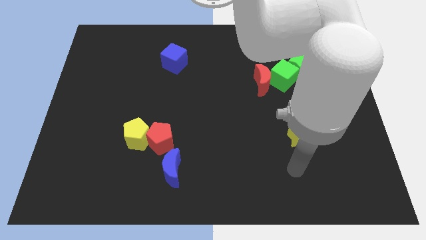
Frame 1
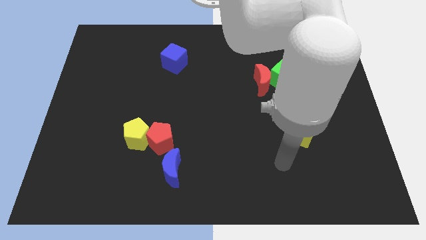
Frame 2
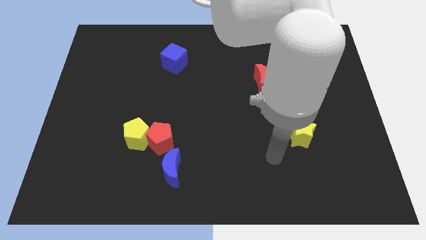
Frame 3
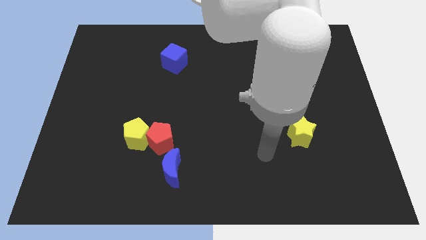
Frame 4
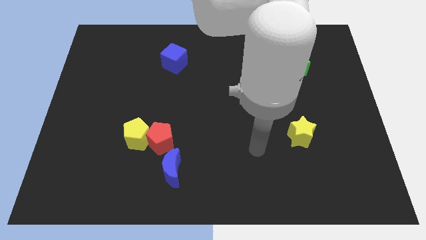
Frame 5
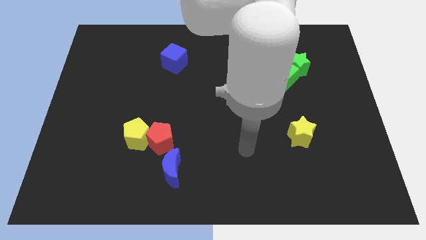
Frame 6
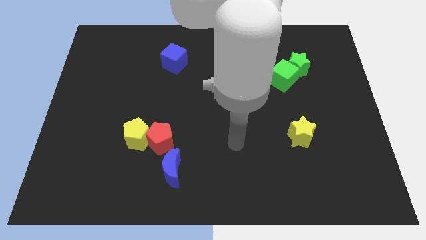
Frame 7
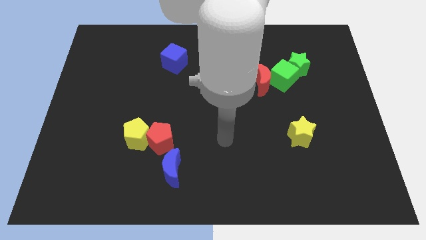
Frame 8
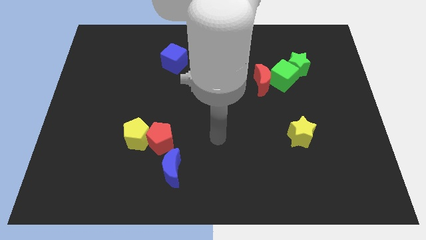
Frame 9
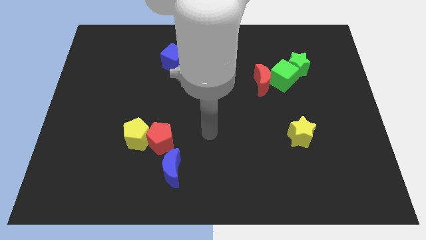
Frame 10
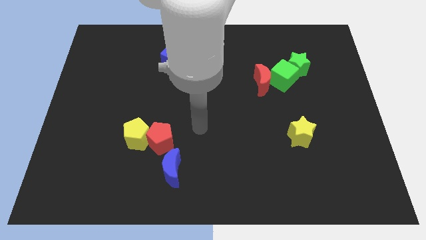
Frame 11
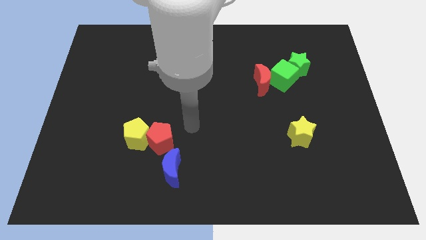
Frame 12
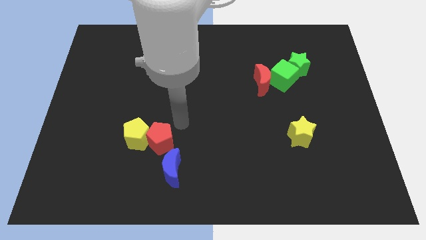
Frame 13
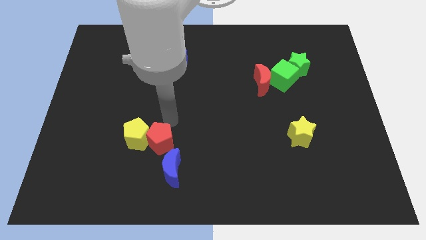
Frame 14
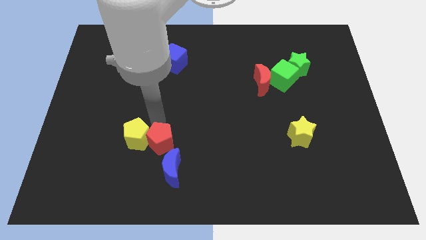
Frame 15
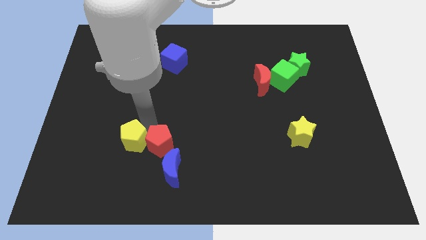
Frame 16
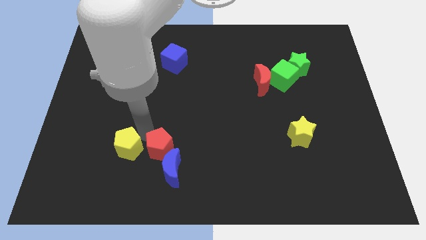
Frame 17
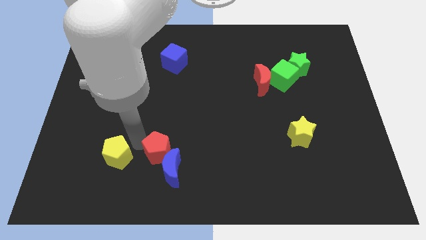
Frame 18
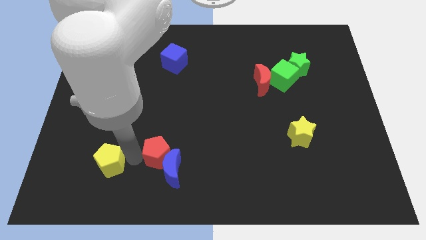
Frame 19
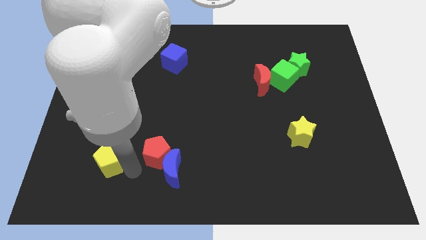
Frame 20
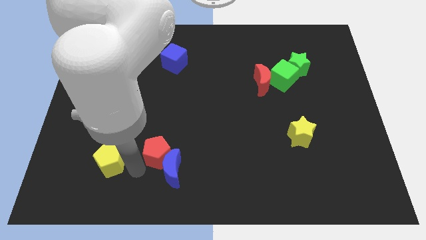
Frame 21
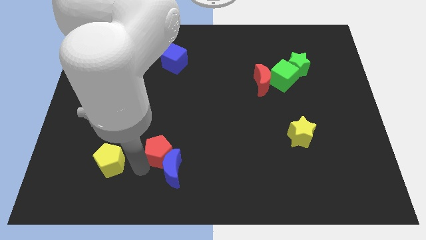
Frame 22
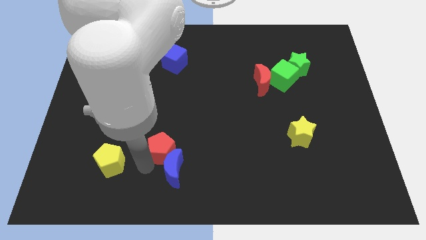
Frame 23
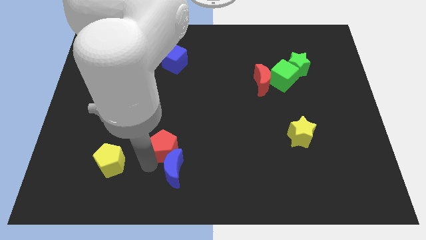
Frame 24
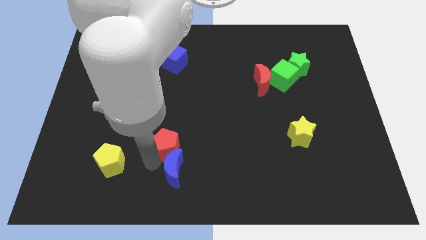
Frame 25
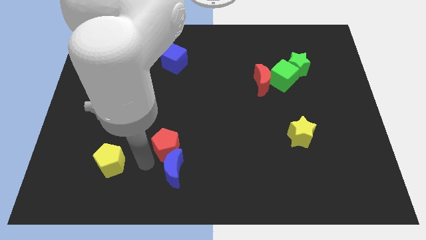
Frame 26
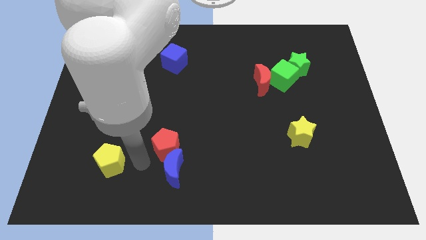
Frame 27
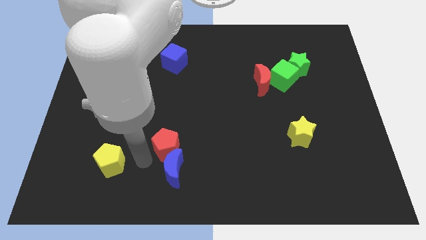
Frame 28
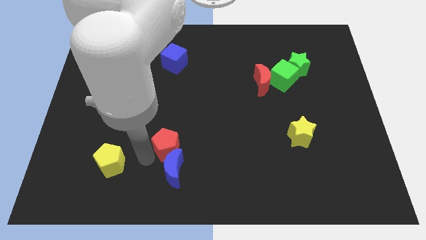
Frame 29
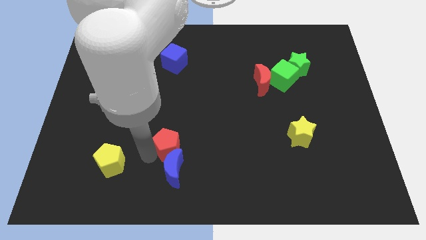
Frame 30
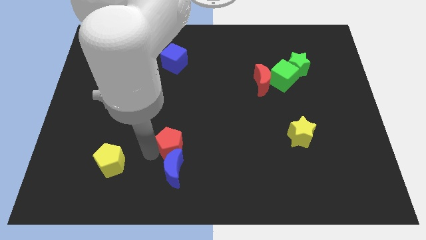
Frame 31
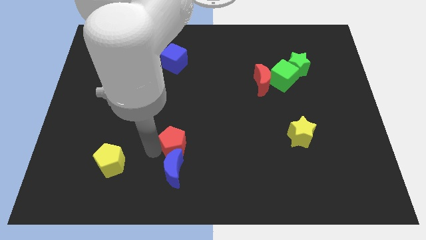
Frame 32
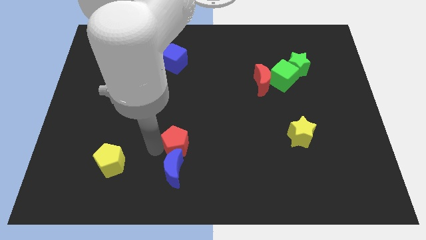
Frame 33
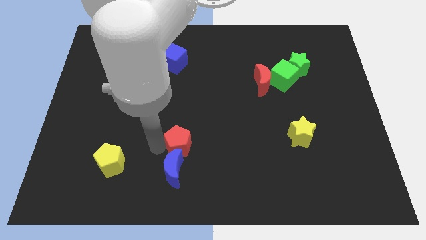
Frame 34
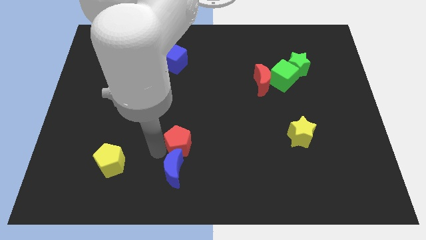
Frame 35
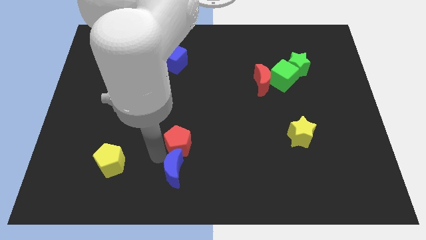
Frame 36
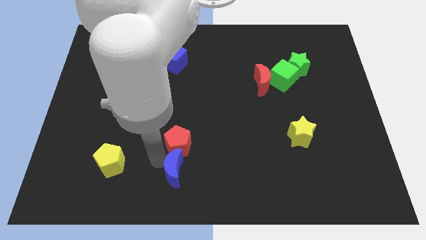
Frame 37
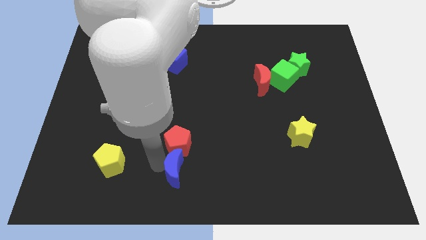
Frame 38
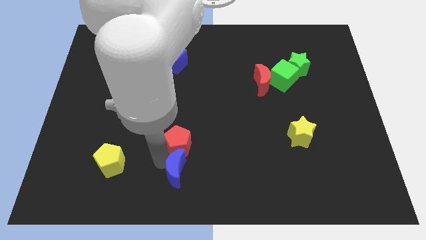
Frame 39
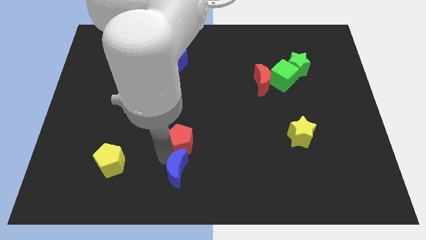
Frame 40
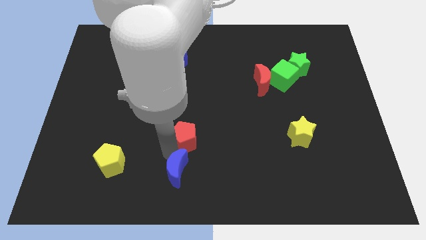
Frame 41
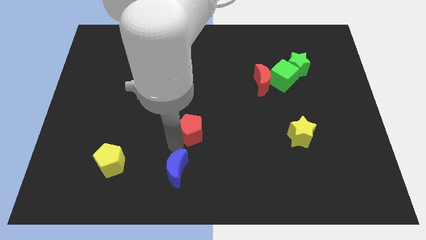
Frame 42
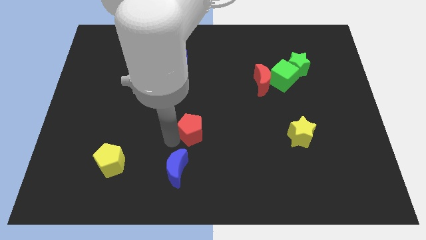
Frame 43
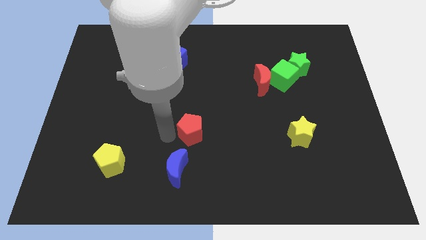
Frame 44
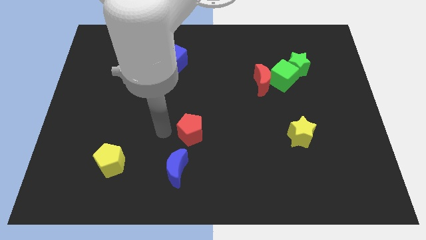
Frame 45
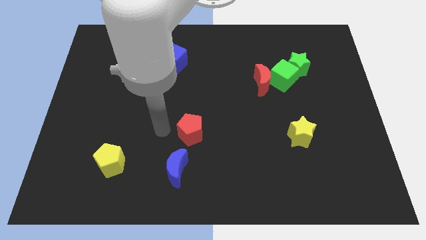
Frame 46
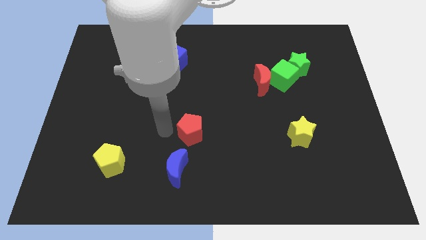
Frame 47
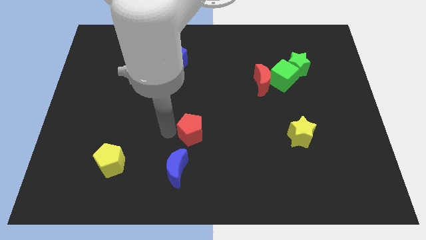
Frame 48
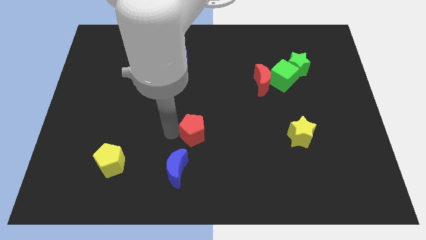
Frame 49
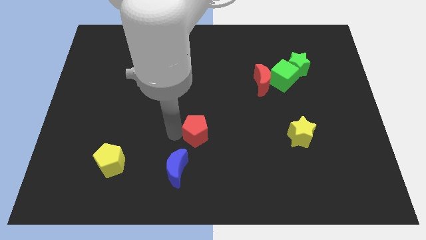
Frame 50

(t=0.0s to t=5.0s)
slide the red pentagon right slightly

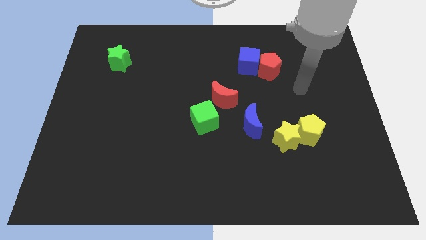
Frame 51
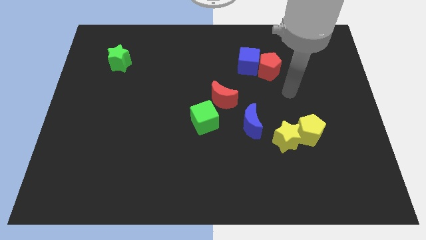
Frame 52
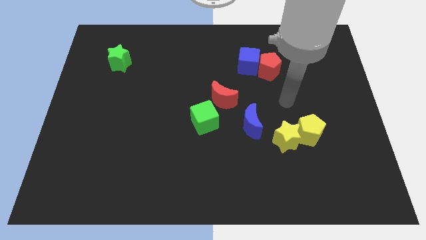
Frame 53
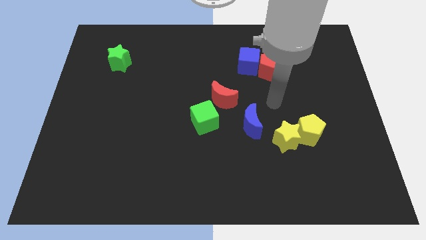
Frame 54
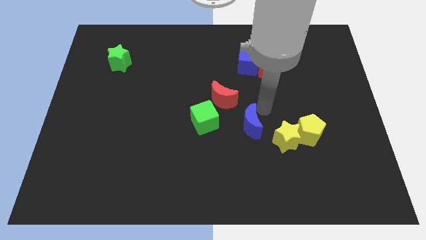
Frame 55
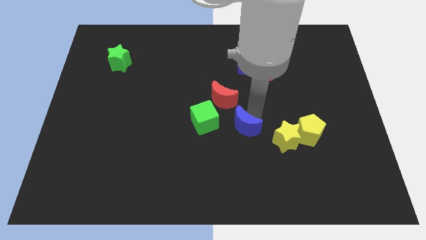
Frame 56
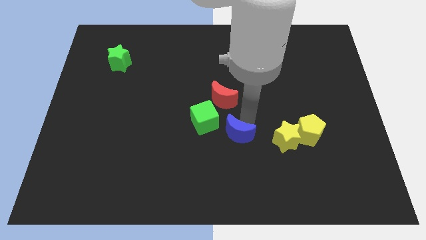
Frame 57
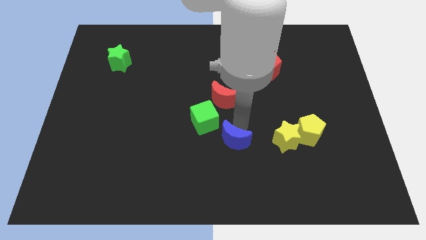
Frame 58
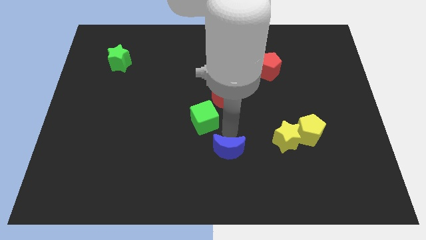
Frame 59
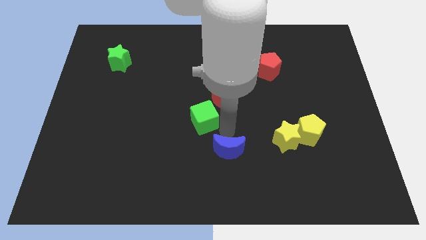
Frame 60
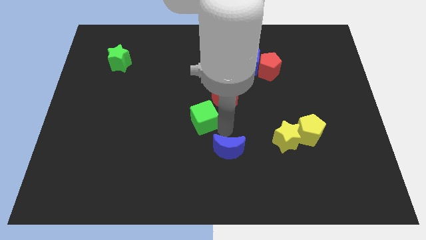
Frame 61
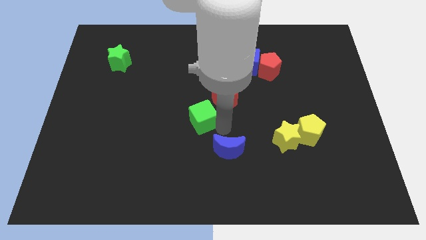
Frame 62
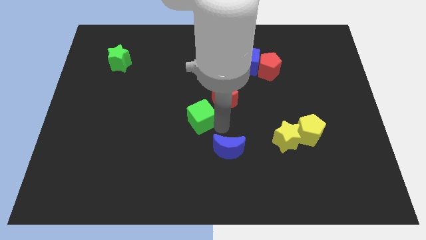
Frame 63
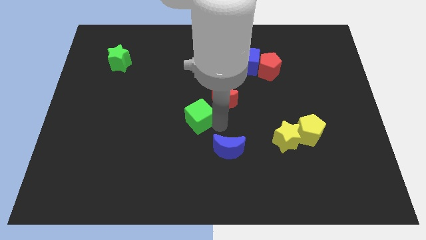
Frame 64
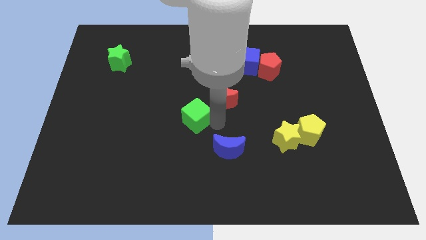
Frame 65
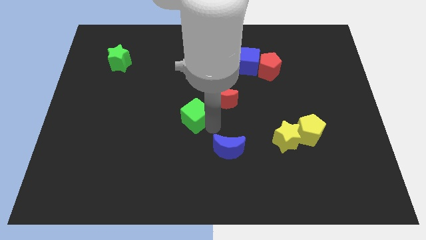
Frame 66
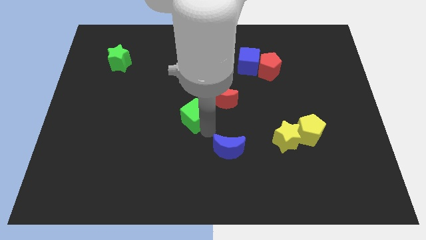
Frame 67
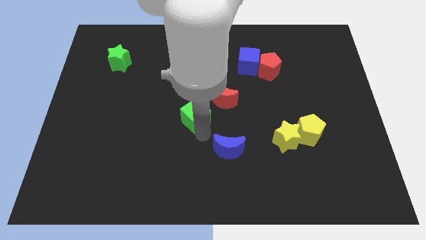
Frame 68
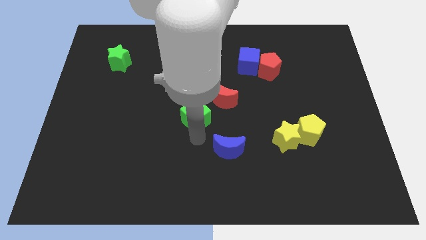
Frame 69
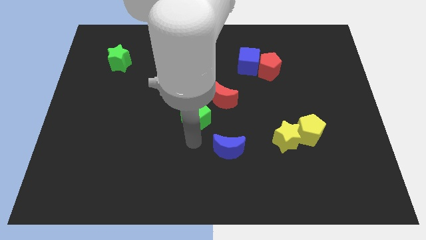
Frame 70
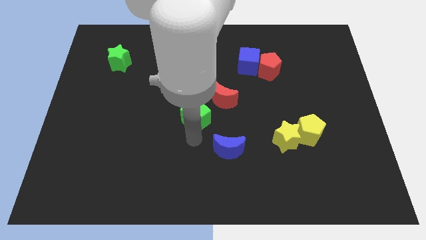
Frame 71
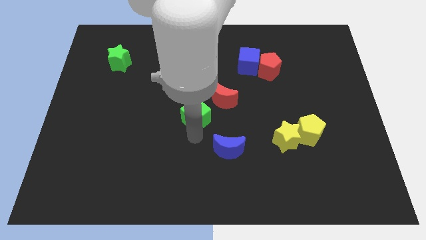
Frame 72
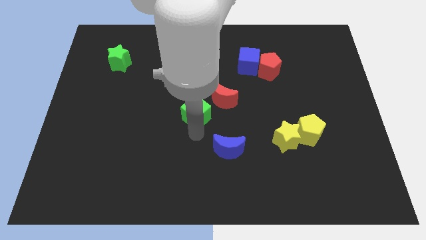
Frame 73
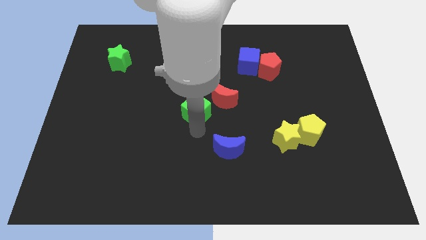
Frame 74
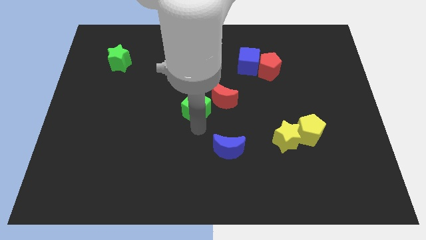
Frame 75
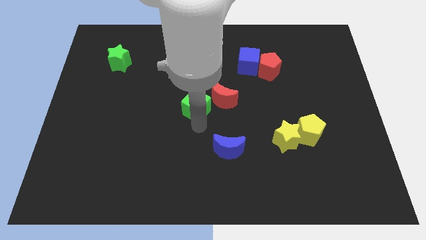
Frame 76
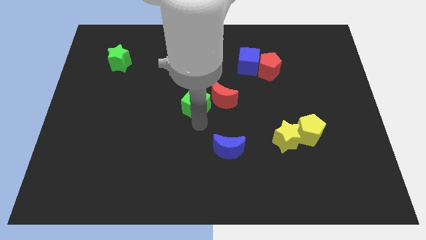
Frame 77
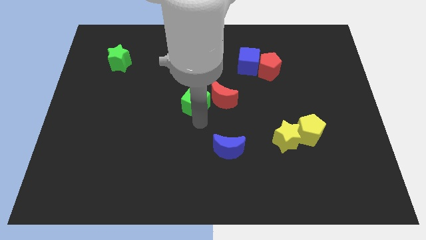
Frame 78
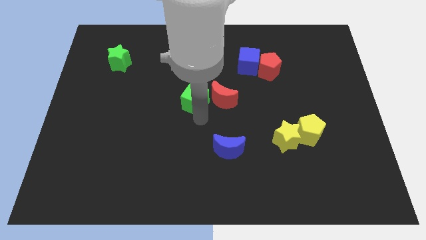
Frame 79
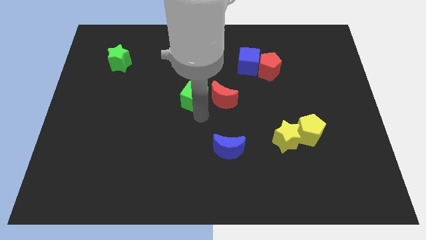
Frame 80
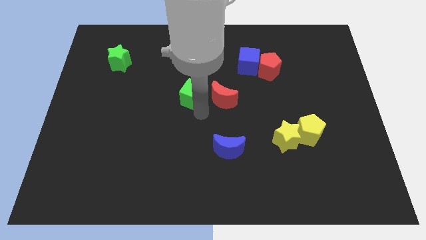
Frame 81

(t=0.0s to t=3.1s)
slide the green cube a little up
